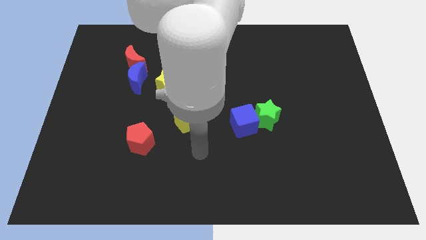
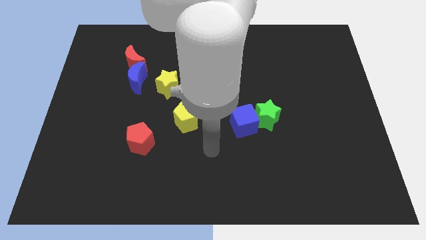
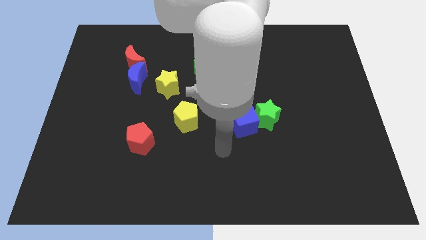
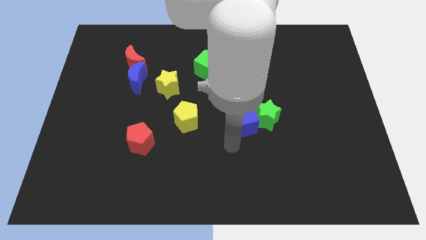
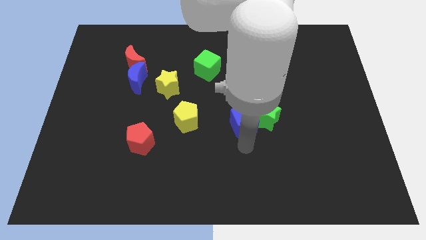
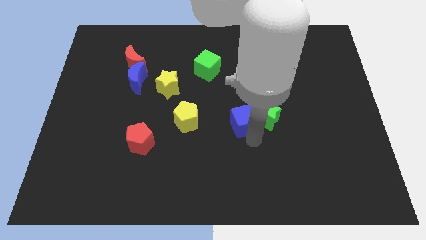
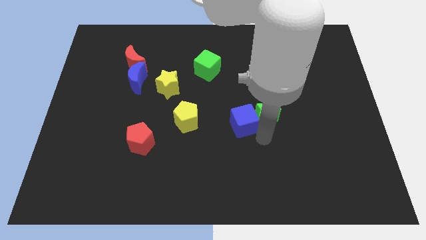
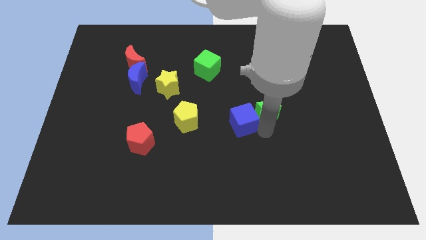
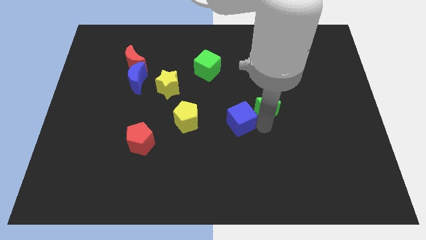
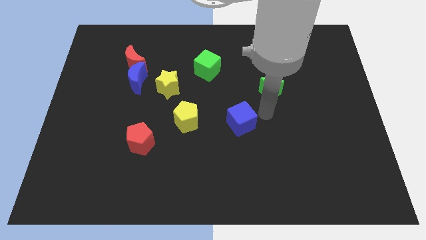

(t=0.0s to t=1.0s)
separate the blue cube from the green star

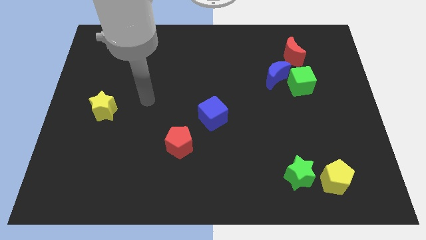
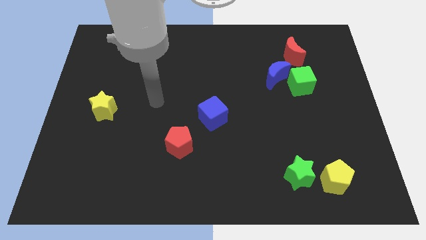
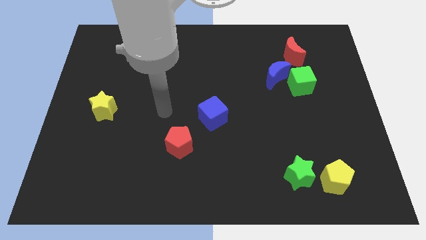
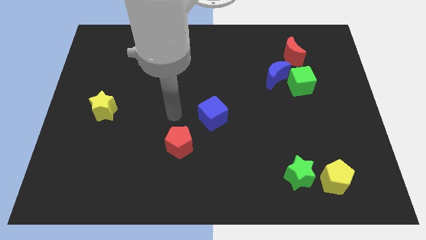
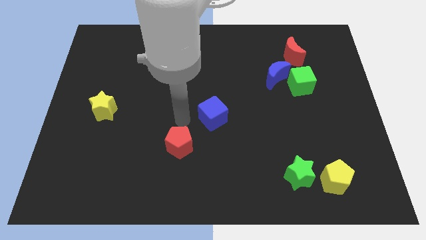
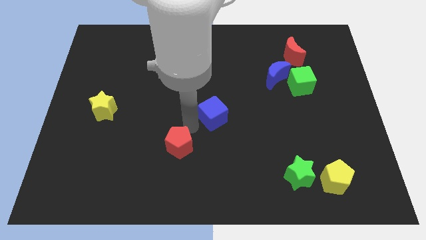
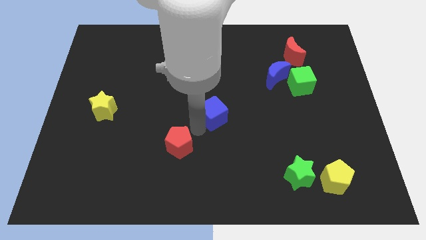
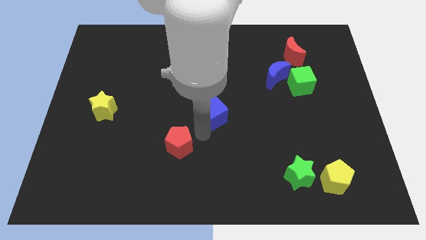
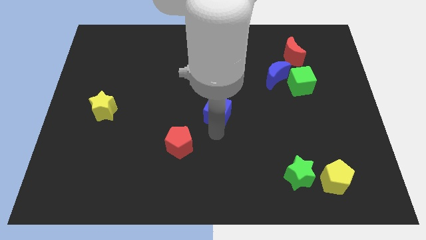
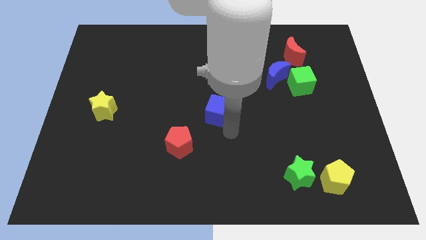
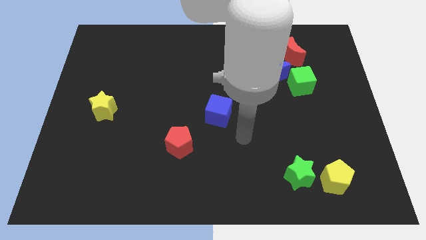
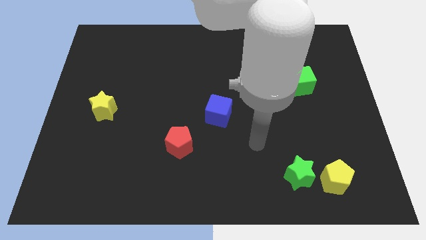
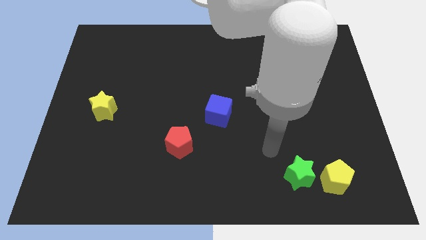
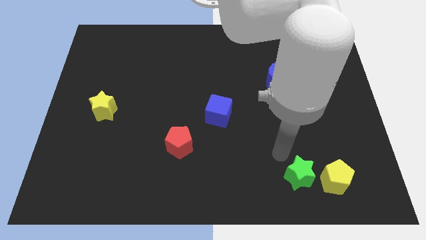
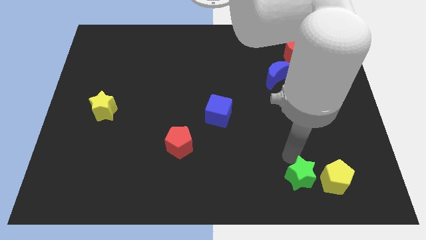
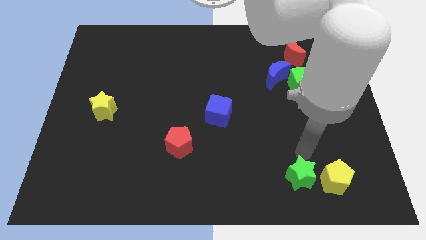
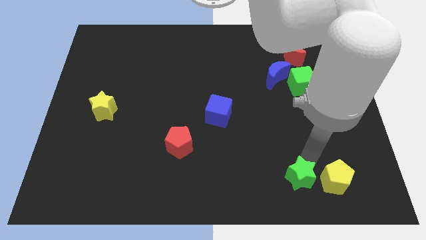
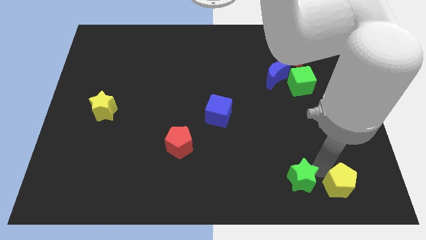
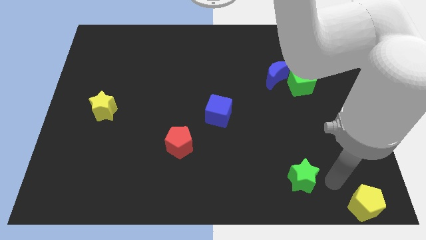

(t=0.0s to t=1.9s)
pull the green star apart from the yellow pentagon

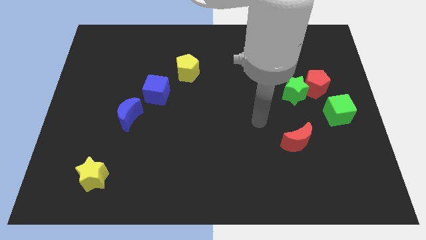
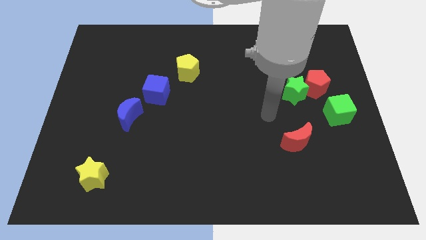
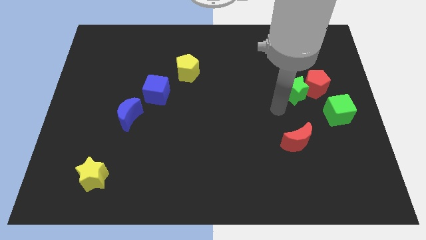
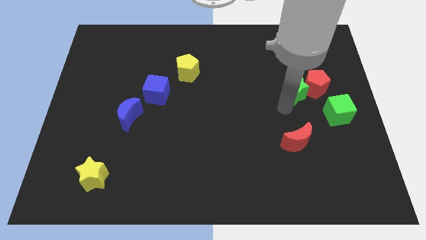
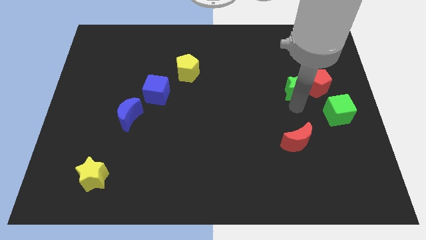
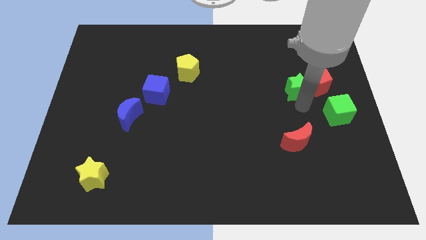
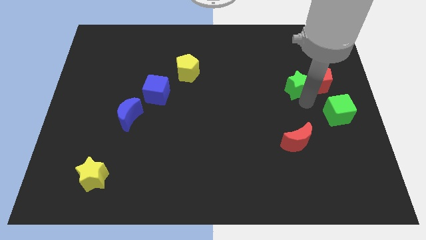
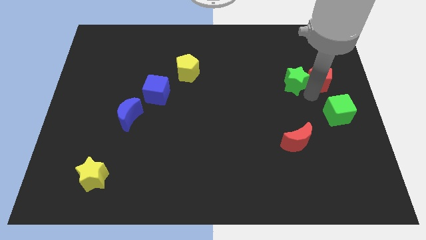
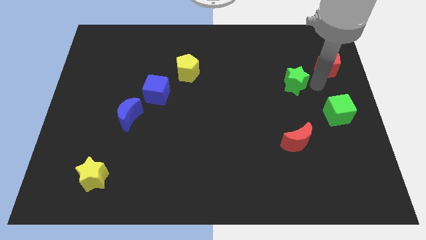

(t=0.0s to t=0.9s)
move the green star away from the red pentagon

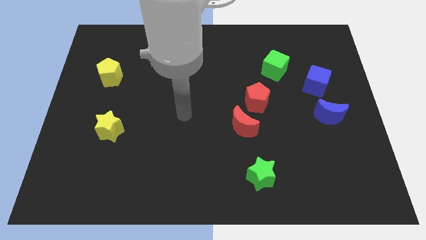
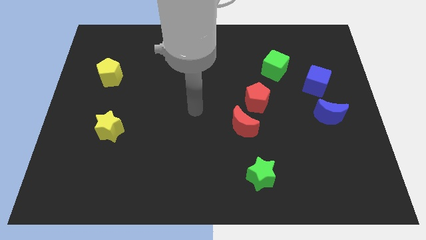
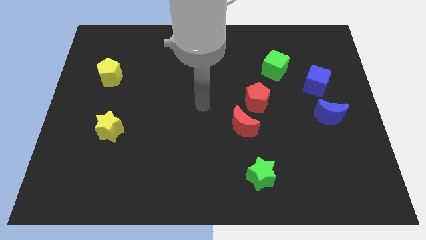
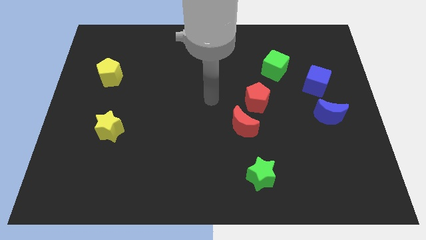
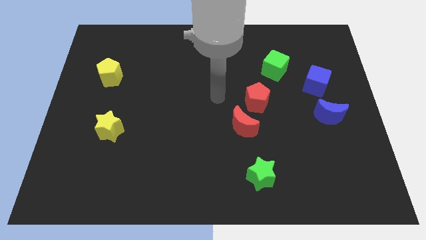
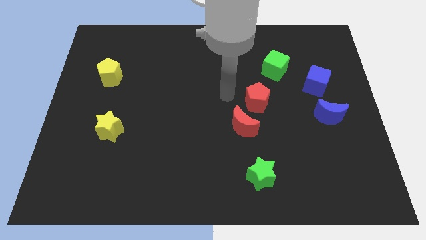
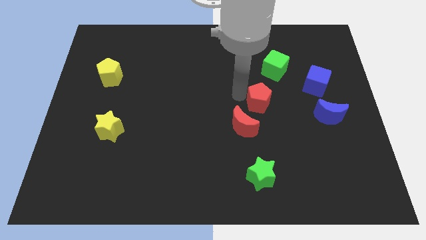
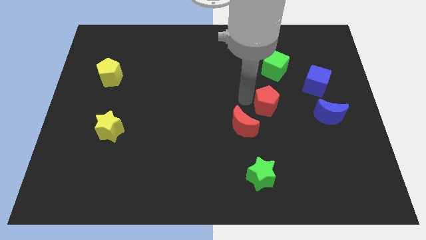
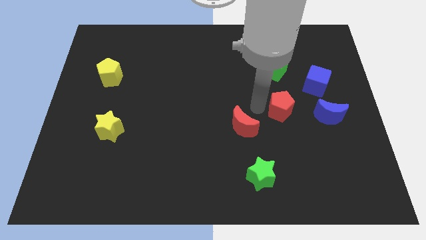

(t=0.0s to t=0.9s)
separate the red moon from the red pentagon

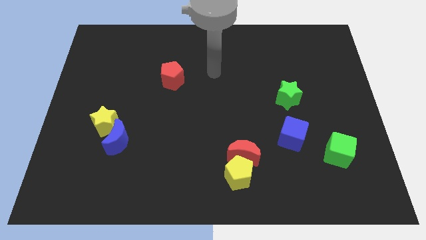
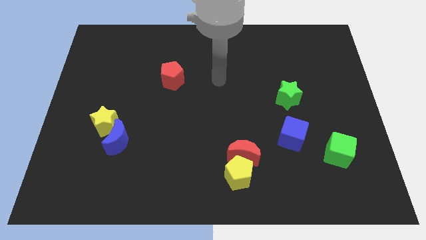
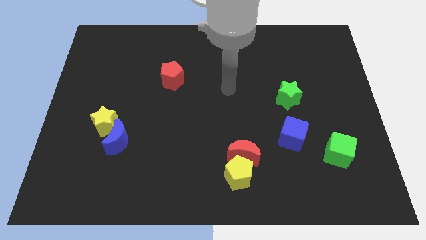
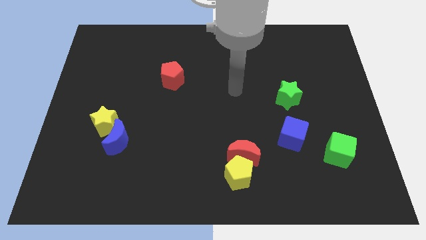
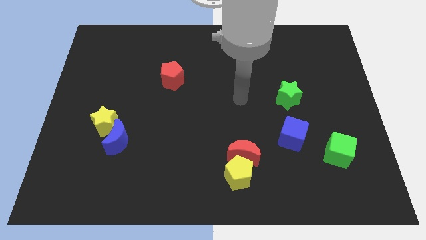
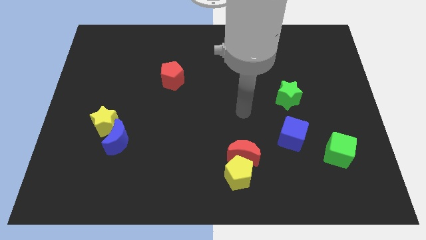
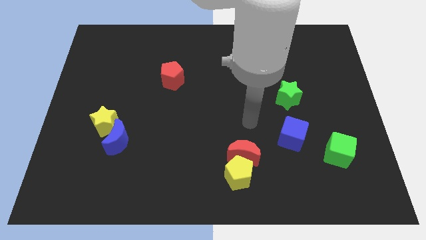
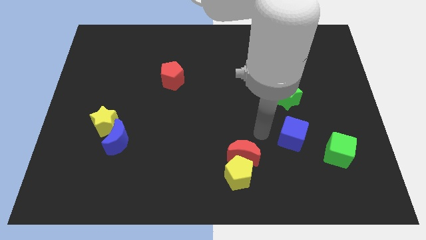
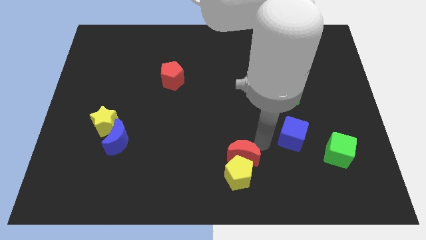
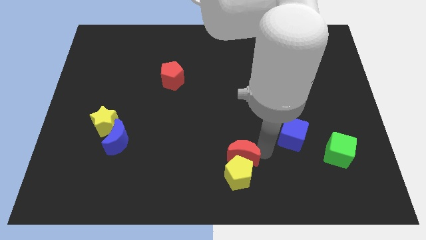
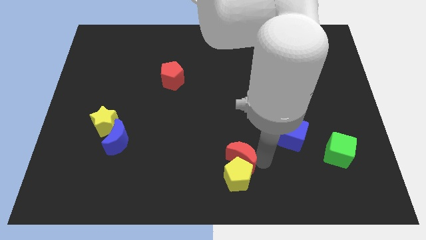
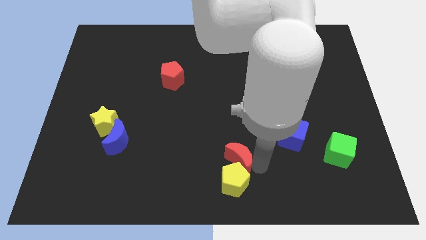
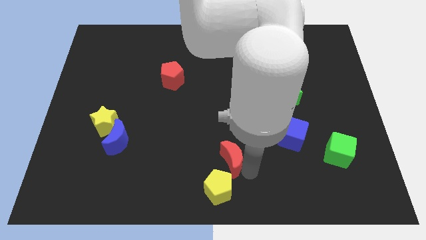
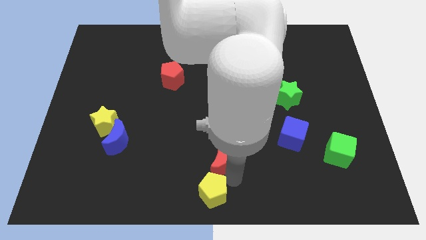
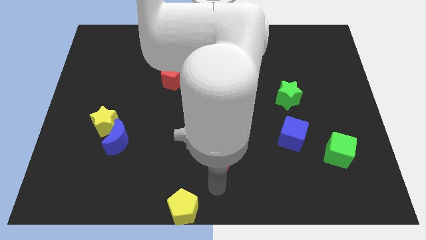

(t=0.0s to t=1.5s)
pull the red moon apart from the yellow pentagon

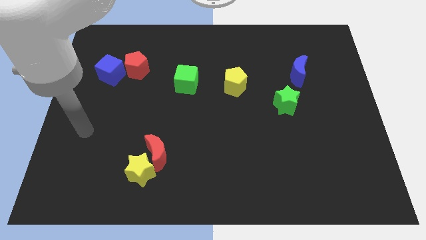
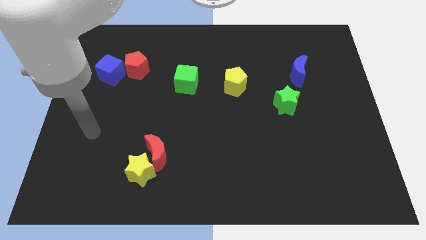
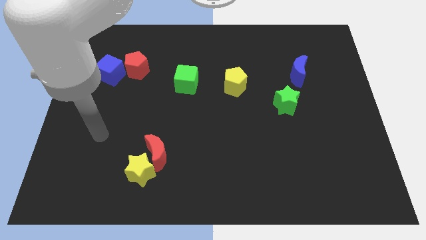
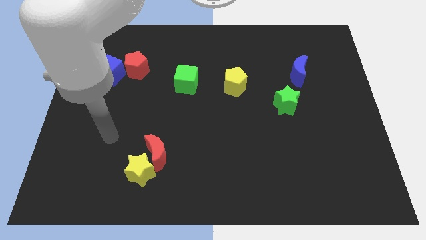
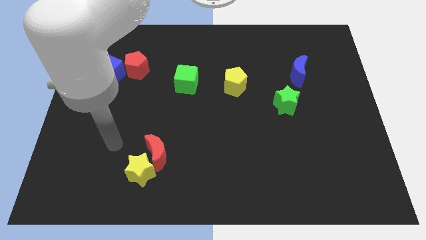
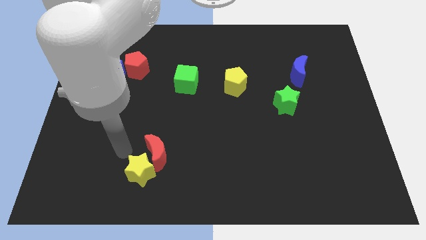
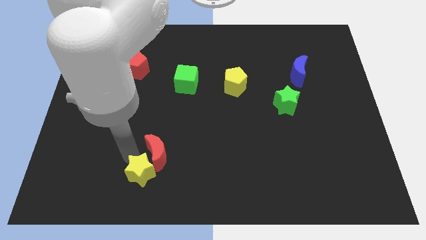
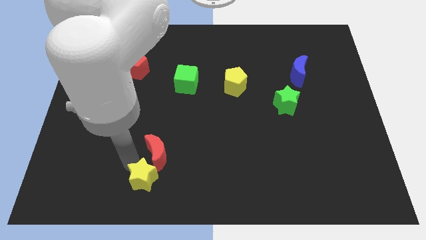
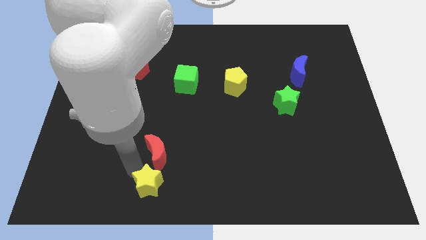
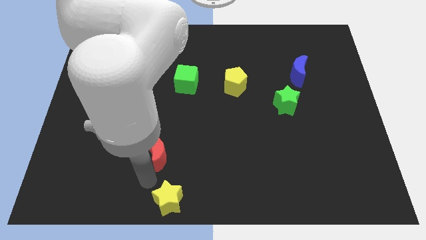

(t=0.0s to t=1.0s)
move the red moon away from the yellow star

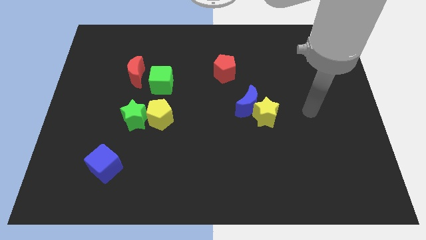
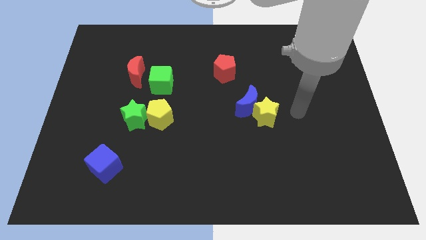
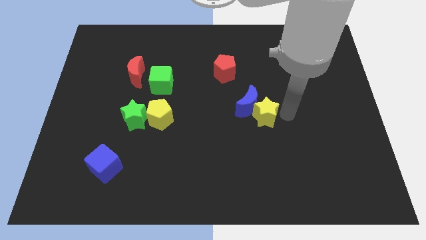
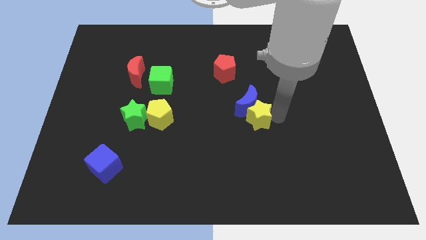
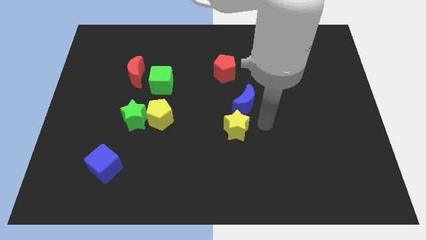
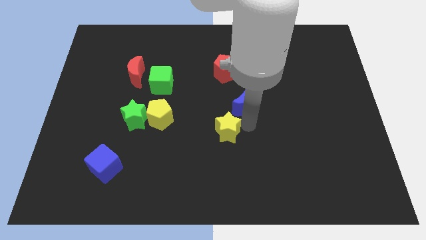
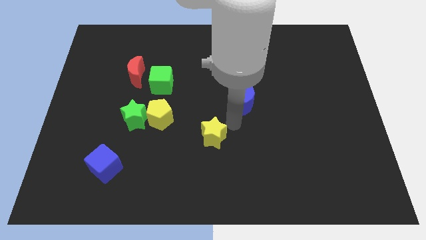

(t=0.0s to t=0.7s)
separate the blue moon from the yellow star

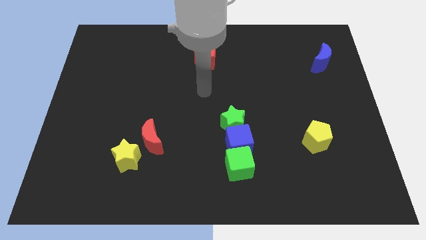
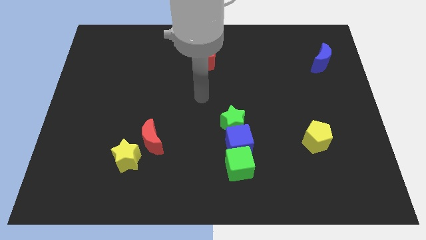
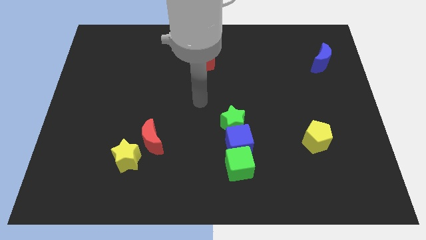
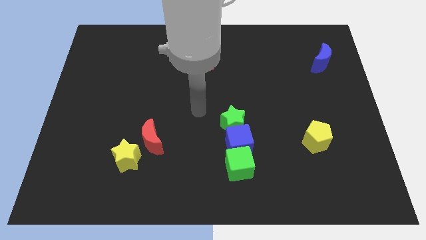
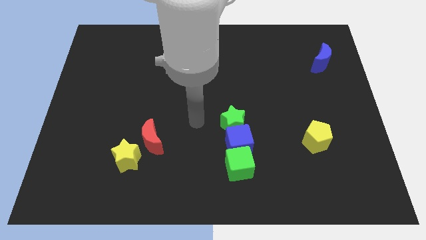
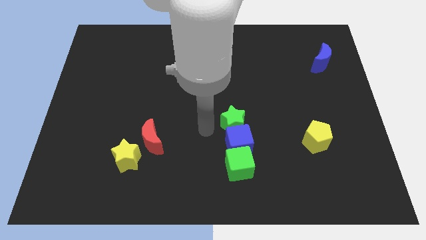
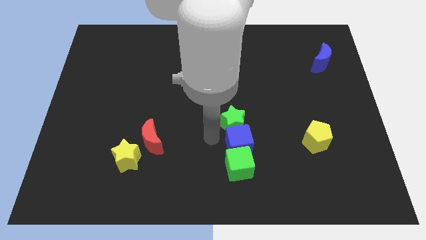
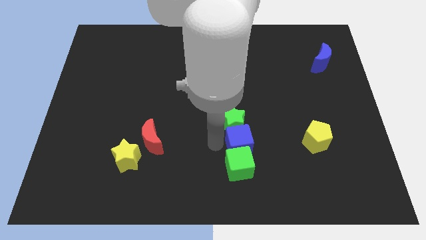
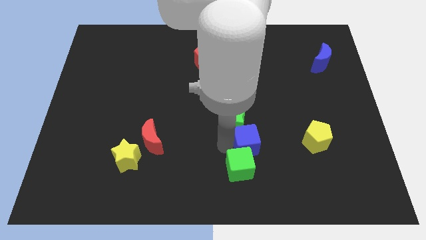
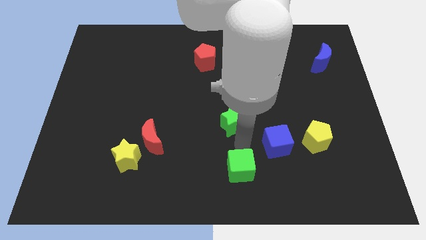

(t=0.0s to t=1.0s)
separate the green star from the blue cube

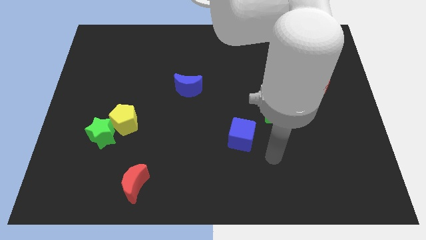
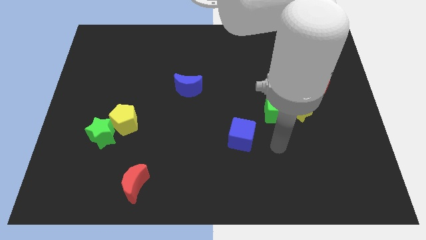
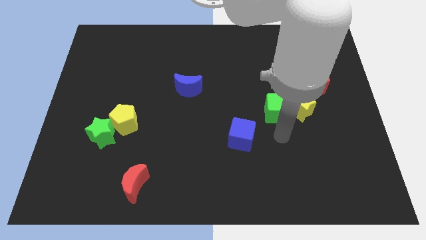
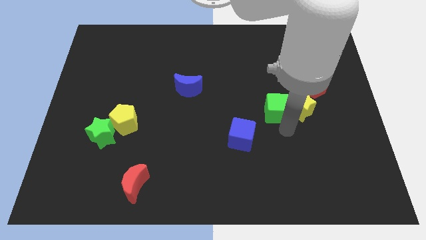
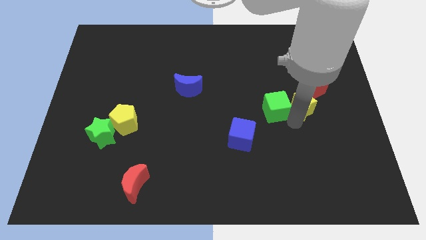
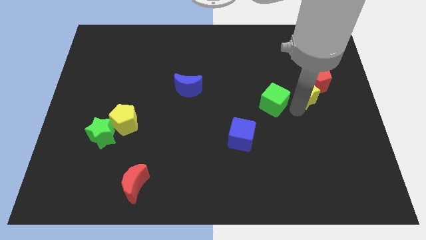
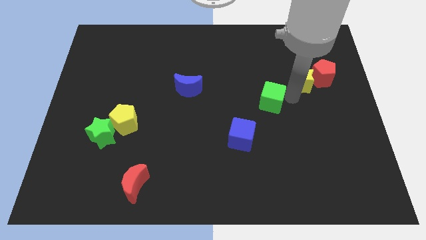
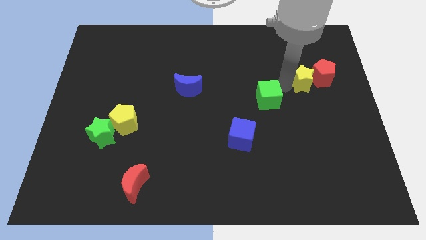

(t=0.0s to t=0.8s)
pull the green cube apart from the yellow star
